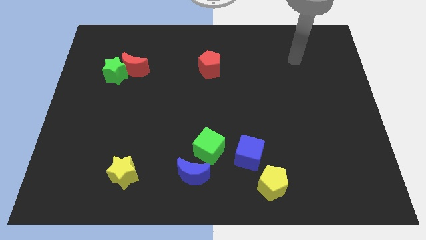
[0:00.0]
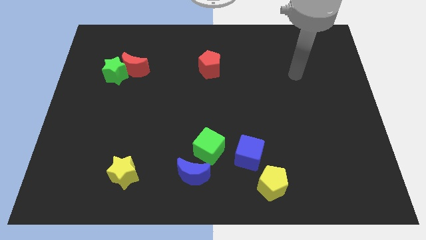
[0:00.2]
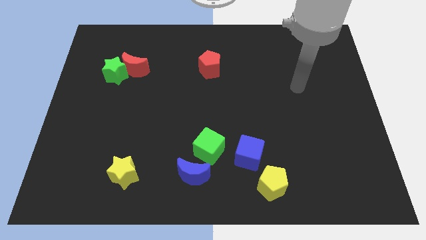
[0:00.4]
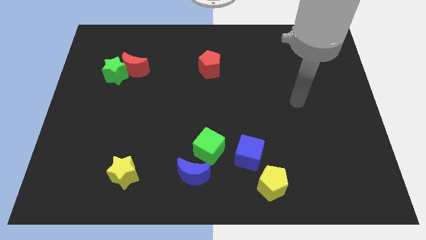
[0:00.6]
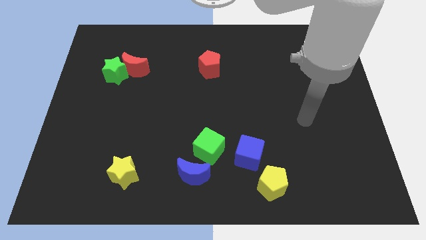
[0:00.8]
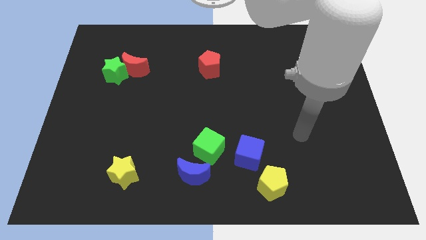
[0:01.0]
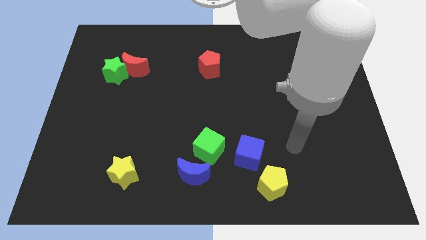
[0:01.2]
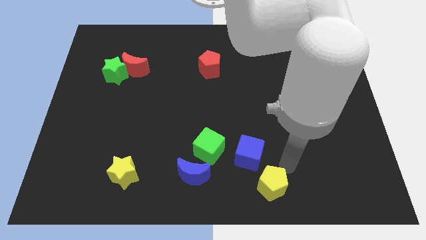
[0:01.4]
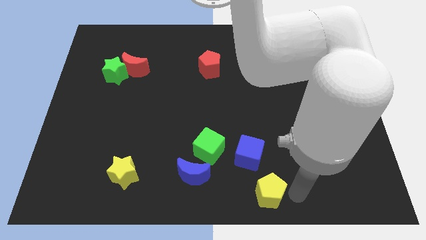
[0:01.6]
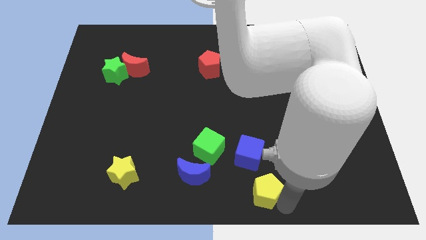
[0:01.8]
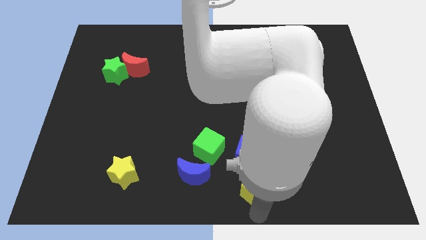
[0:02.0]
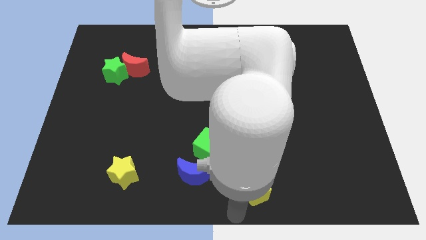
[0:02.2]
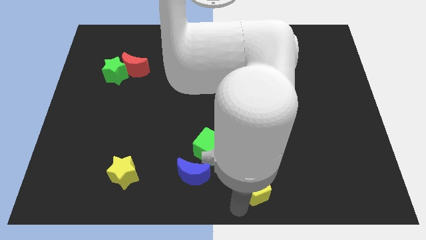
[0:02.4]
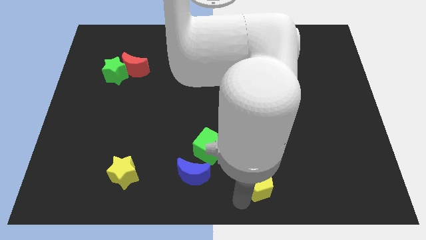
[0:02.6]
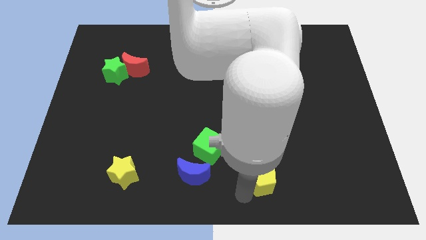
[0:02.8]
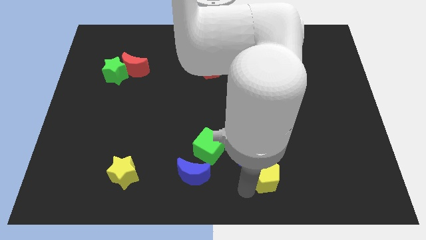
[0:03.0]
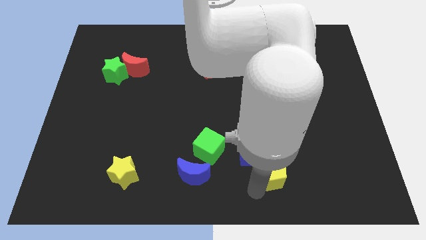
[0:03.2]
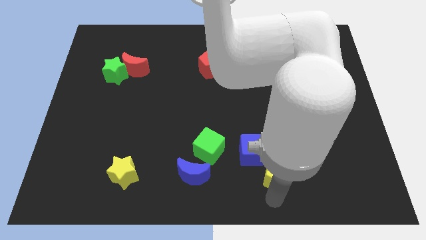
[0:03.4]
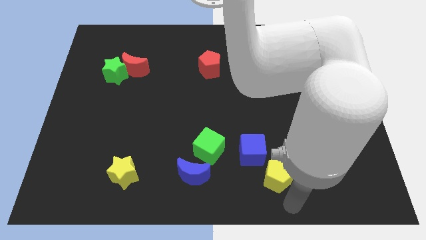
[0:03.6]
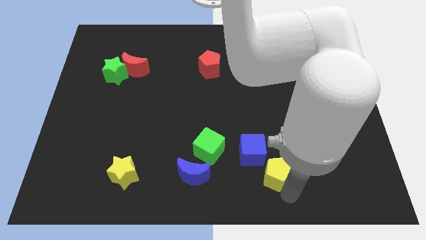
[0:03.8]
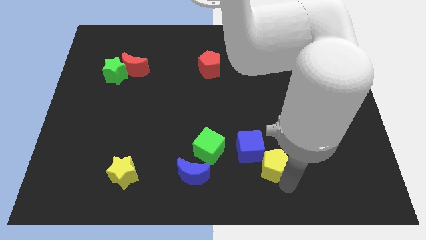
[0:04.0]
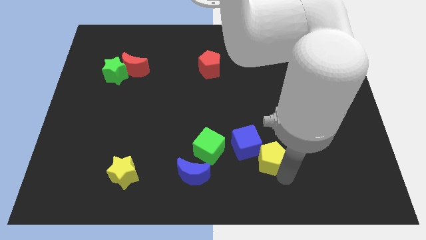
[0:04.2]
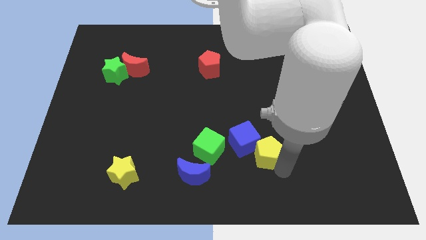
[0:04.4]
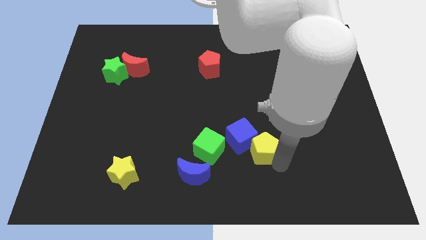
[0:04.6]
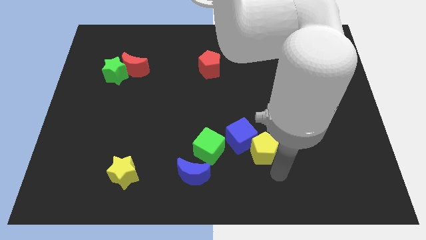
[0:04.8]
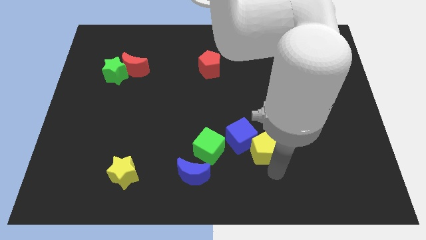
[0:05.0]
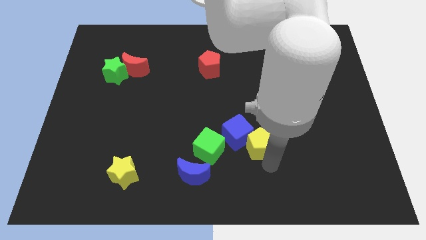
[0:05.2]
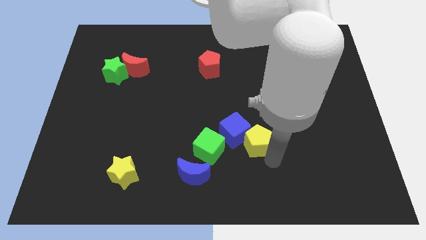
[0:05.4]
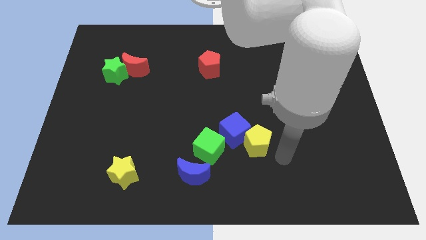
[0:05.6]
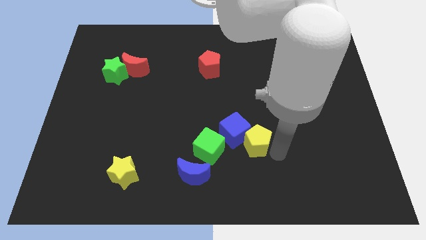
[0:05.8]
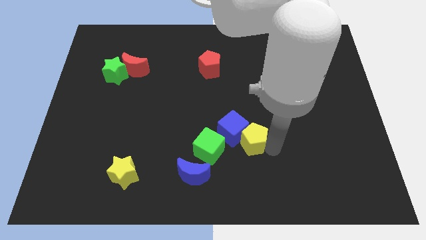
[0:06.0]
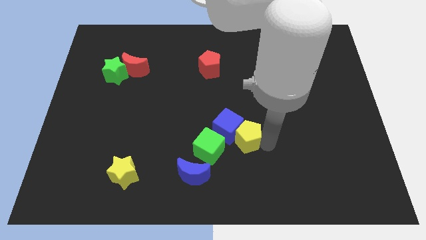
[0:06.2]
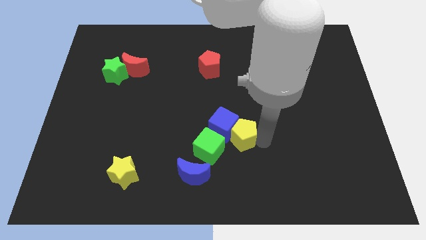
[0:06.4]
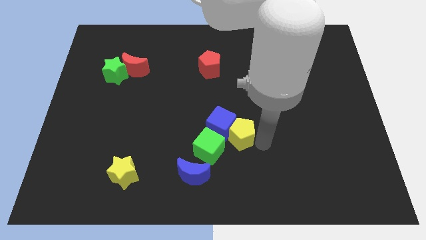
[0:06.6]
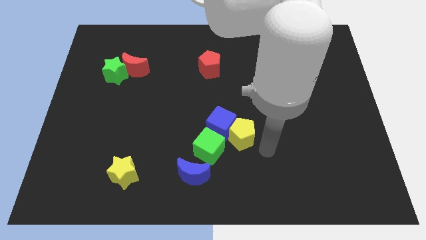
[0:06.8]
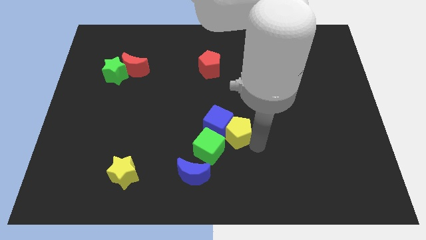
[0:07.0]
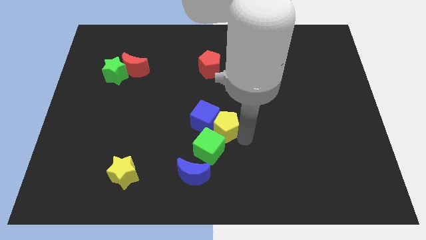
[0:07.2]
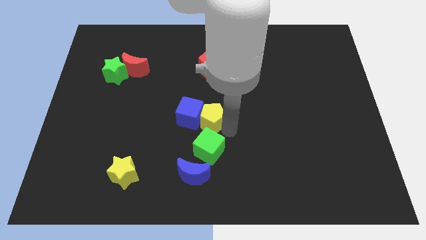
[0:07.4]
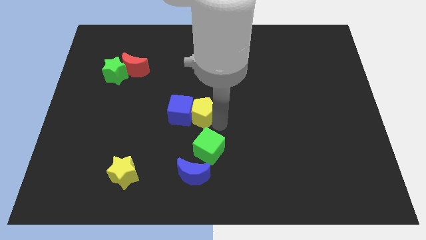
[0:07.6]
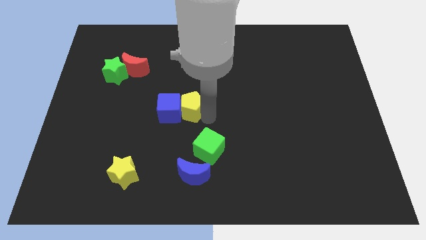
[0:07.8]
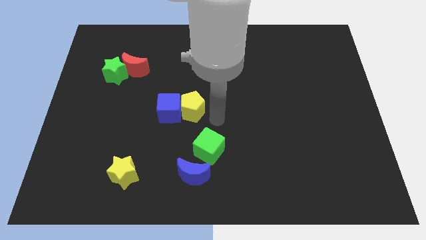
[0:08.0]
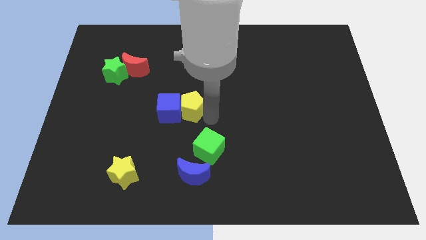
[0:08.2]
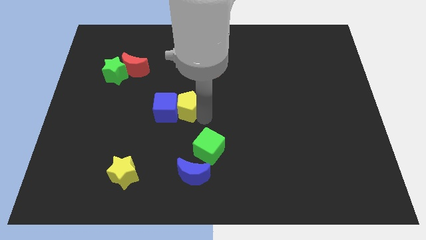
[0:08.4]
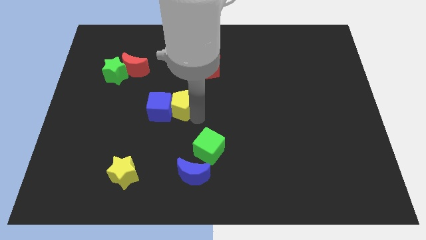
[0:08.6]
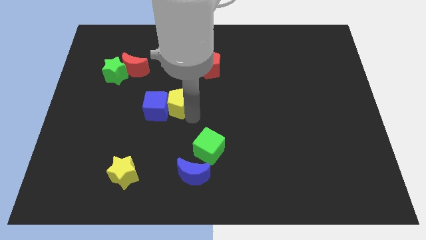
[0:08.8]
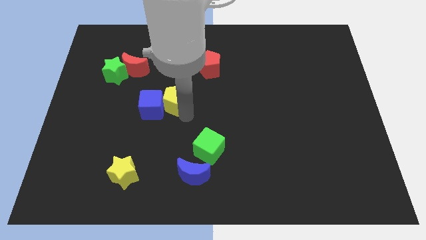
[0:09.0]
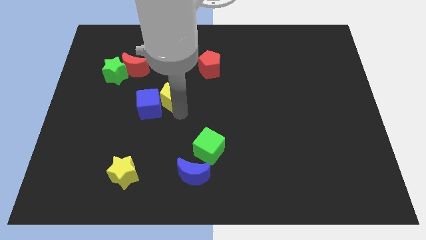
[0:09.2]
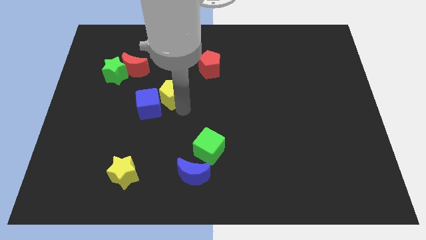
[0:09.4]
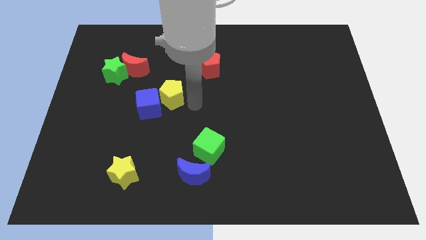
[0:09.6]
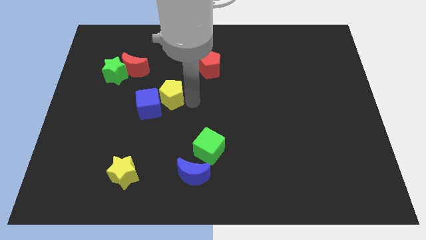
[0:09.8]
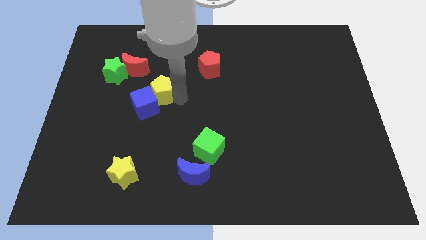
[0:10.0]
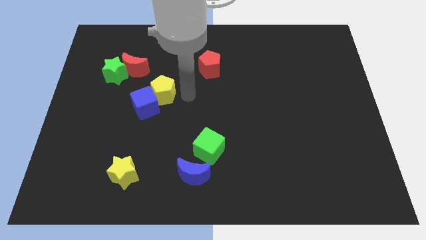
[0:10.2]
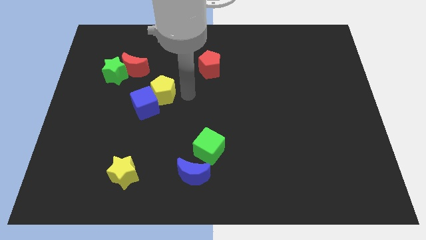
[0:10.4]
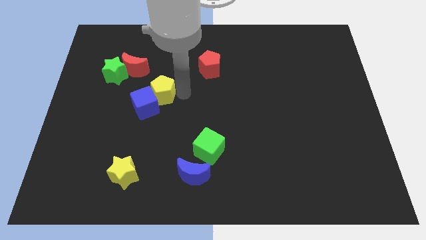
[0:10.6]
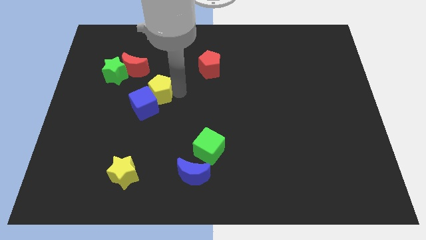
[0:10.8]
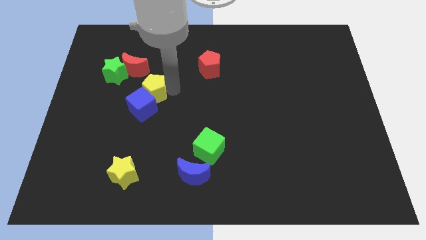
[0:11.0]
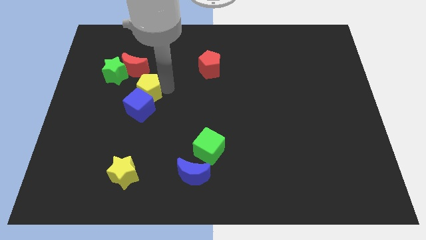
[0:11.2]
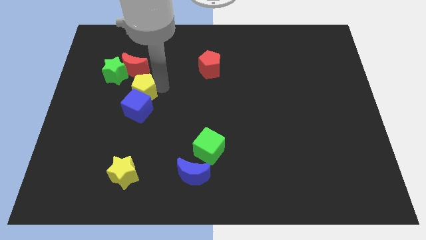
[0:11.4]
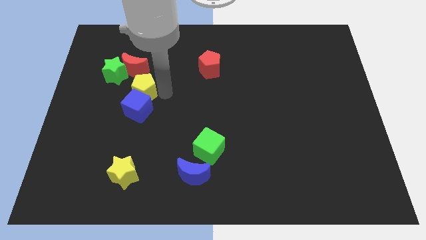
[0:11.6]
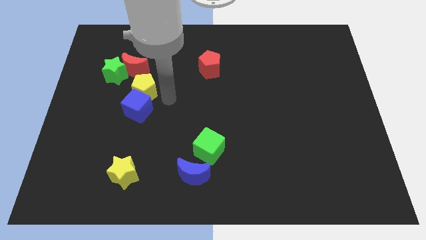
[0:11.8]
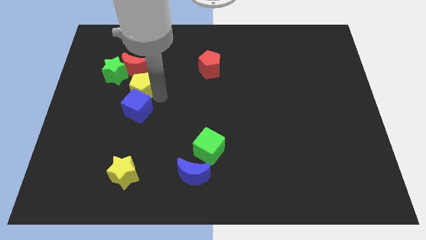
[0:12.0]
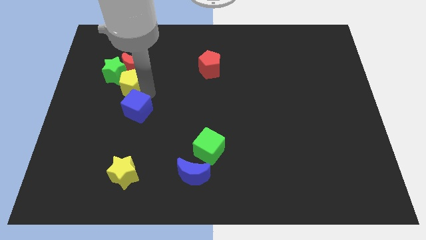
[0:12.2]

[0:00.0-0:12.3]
put the yellow pentagon close to the green star

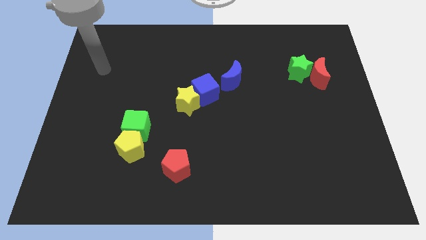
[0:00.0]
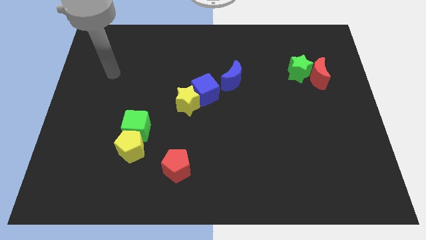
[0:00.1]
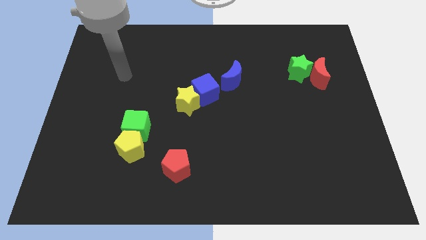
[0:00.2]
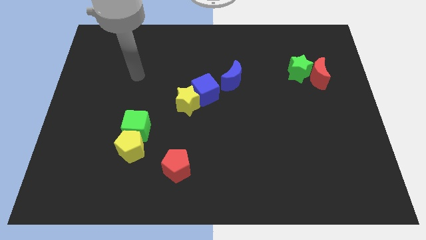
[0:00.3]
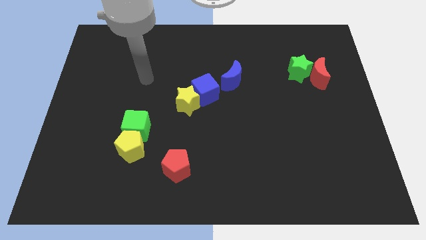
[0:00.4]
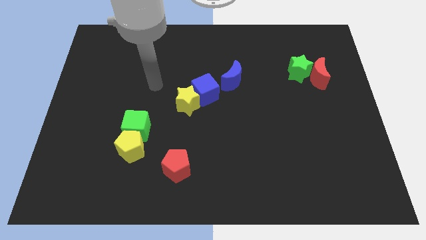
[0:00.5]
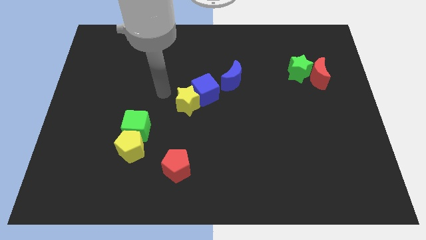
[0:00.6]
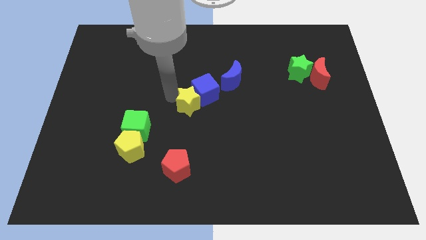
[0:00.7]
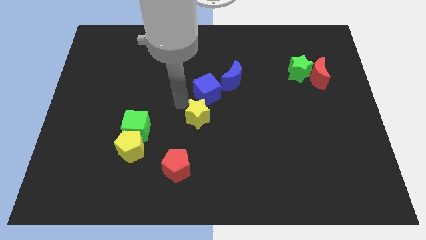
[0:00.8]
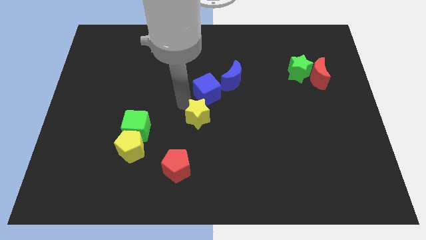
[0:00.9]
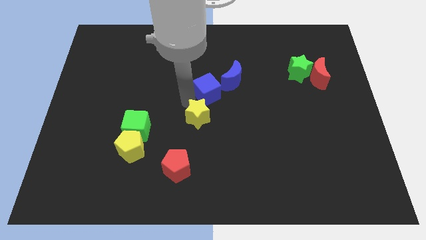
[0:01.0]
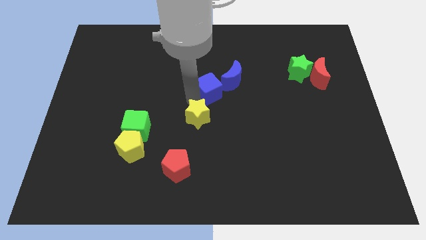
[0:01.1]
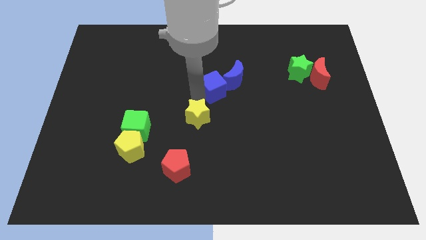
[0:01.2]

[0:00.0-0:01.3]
put the blue cube towards the blue moon
